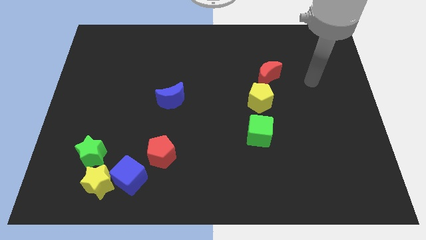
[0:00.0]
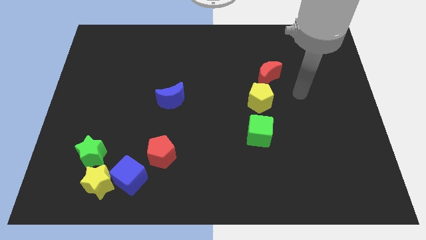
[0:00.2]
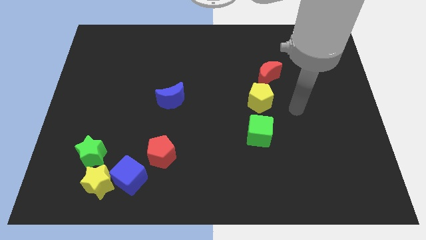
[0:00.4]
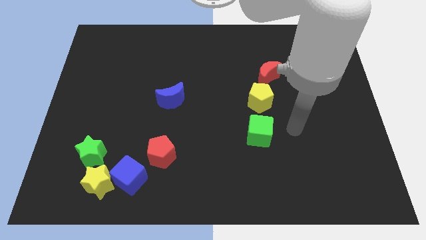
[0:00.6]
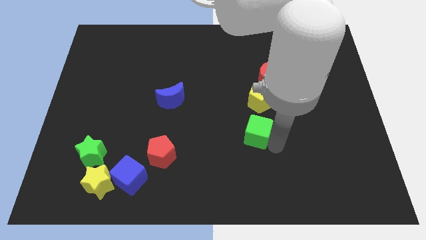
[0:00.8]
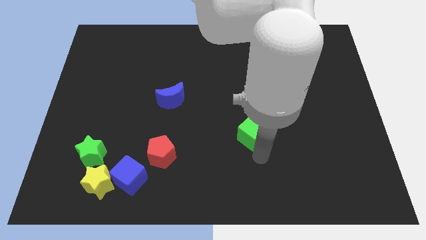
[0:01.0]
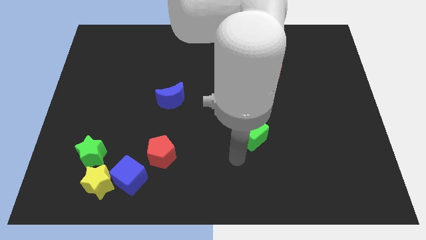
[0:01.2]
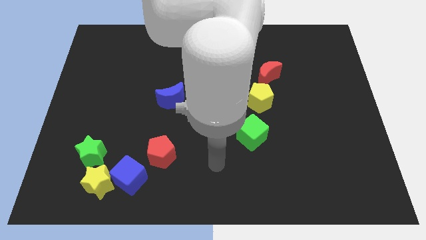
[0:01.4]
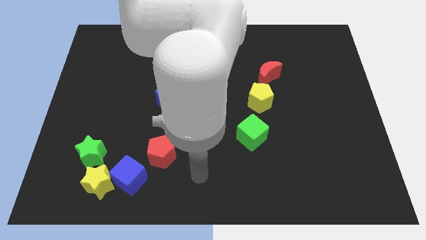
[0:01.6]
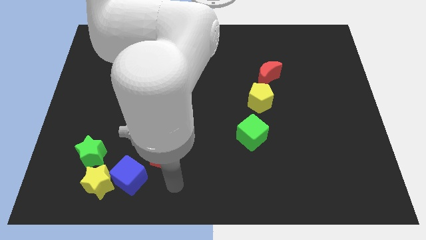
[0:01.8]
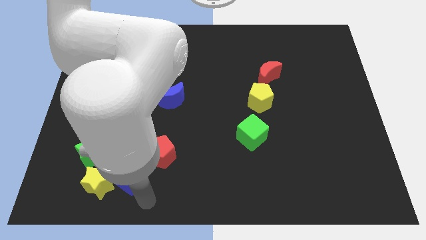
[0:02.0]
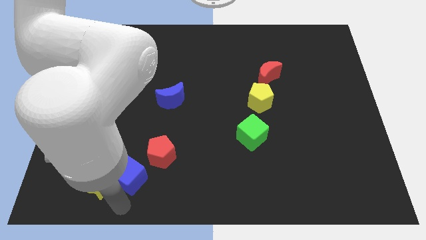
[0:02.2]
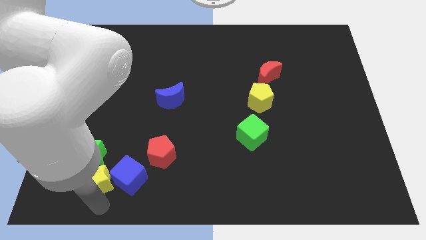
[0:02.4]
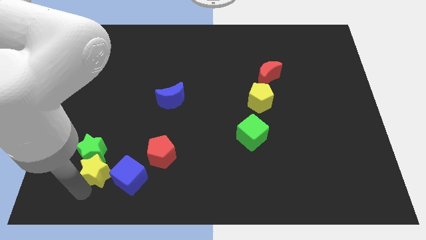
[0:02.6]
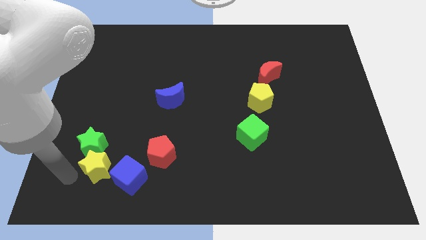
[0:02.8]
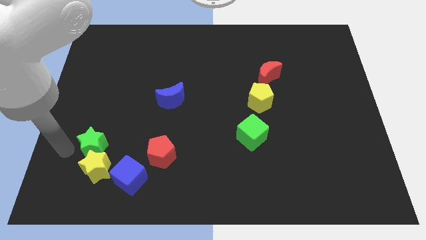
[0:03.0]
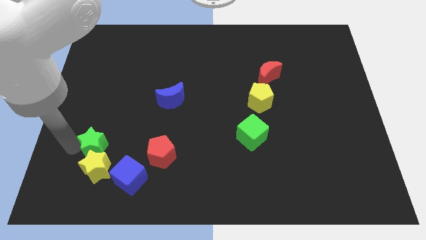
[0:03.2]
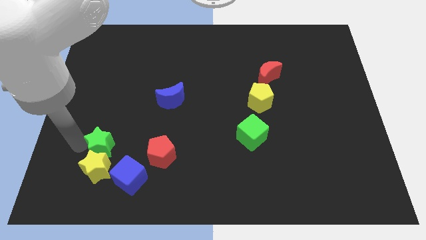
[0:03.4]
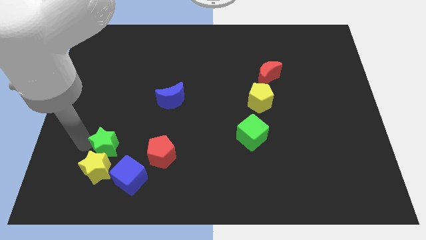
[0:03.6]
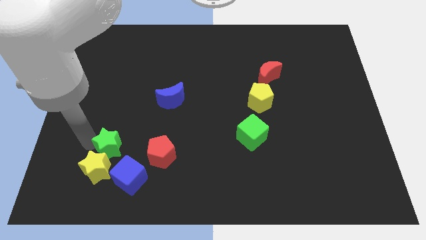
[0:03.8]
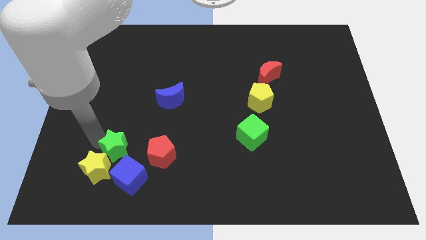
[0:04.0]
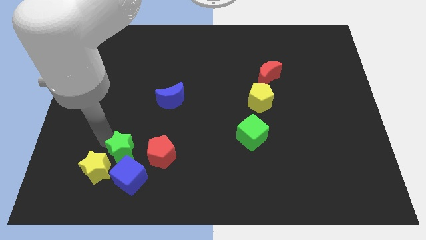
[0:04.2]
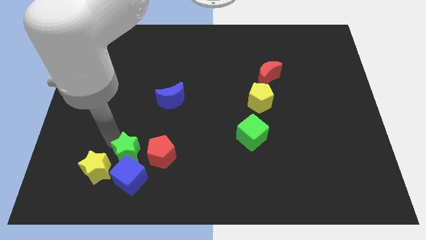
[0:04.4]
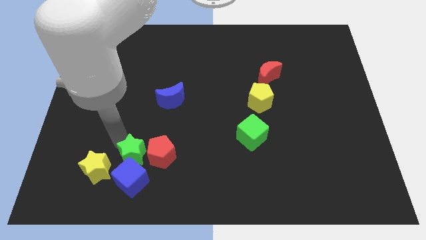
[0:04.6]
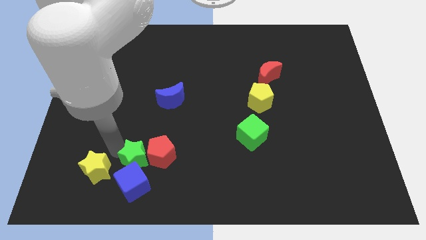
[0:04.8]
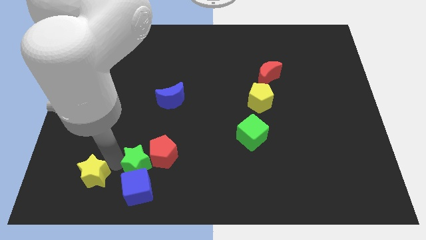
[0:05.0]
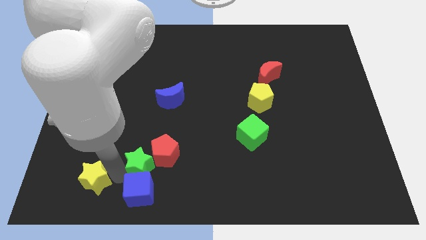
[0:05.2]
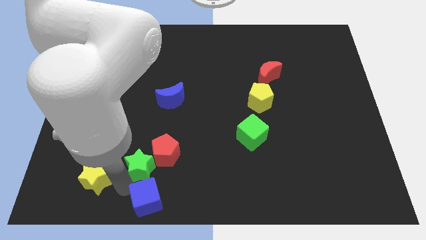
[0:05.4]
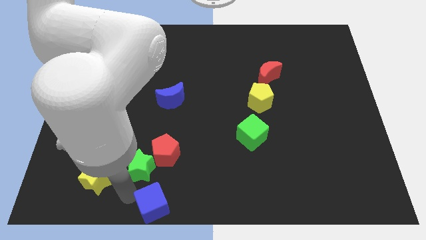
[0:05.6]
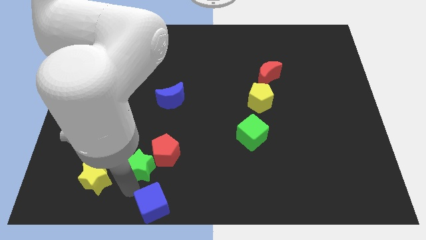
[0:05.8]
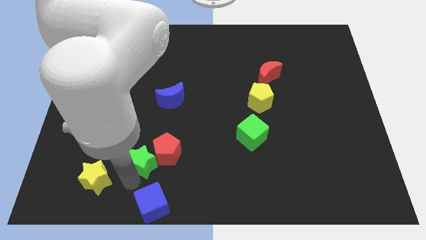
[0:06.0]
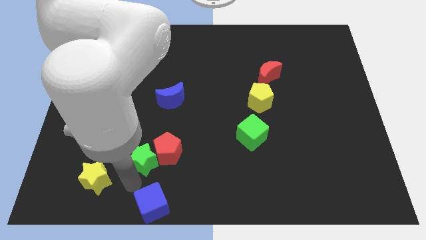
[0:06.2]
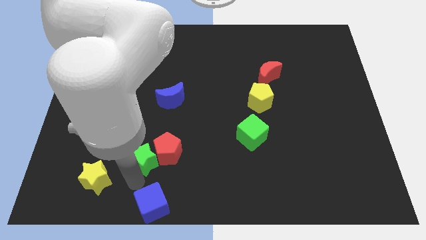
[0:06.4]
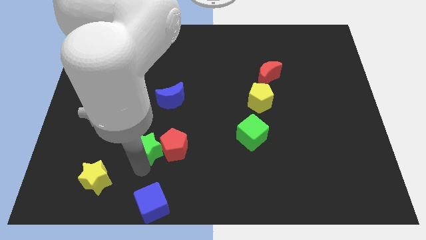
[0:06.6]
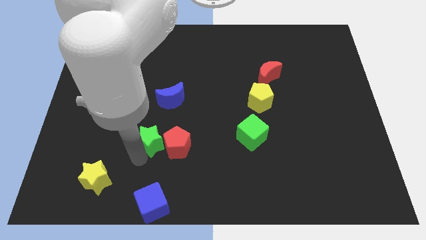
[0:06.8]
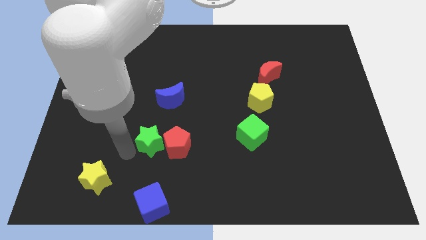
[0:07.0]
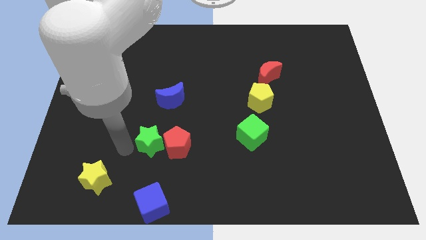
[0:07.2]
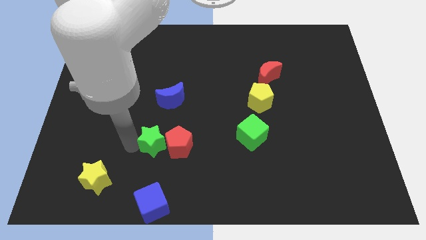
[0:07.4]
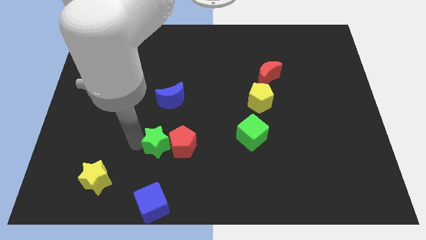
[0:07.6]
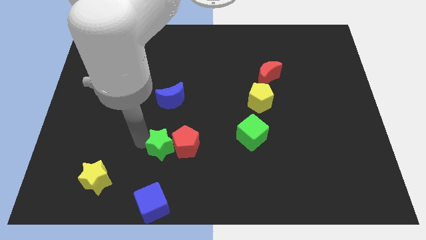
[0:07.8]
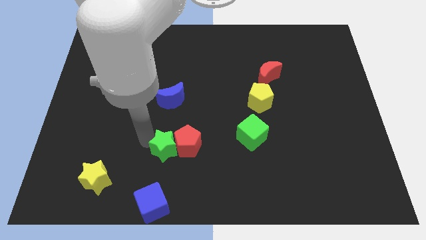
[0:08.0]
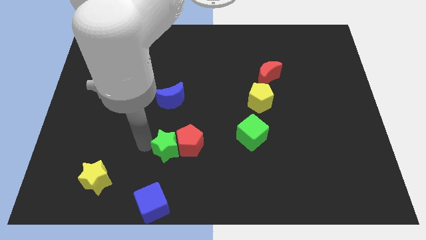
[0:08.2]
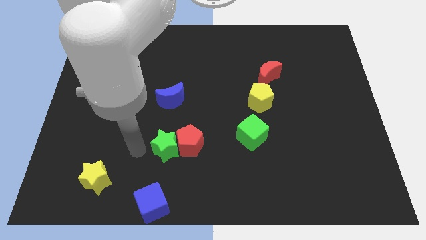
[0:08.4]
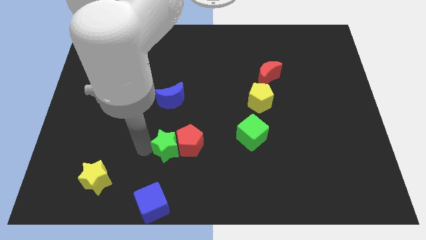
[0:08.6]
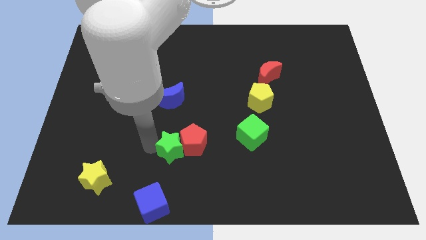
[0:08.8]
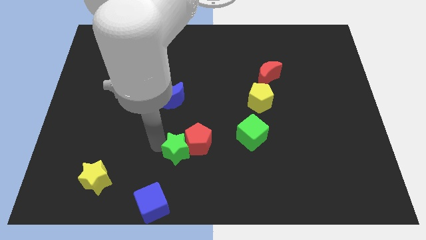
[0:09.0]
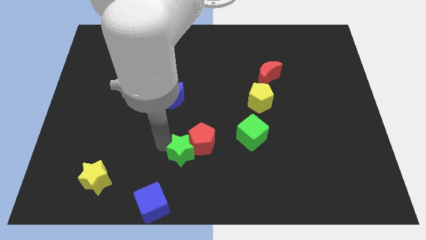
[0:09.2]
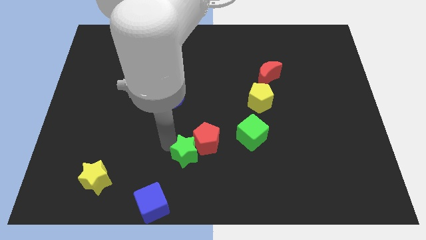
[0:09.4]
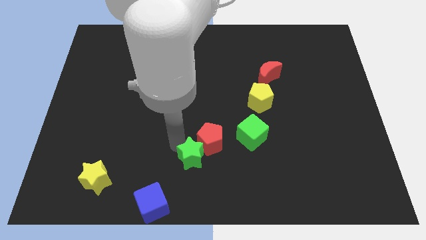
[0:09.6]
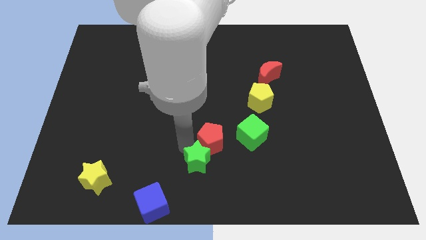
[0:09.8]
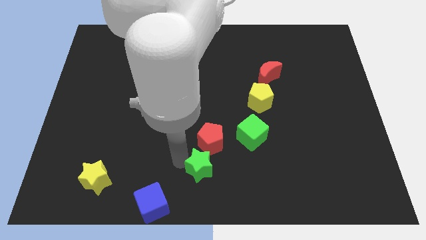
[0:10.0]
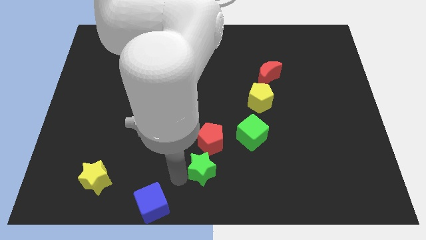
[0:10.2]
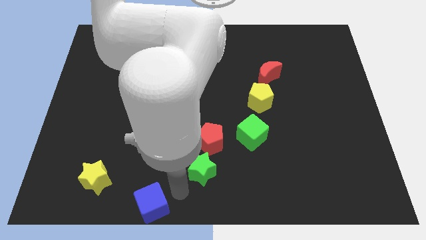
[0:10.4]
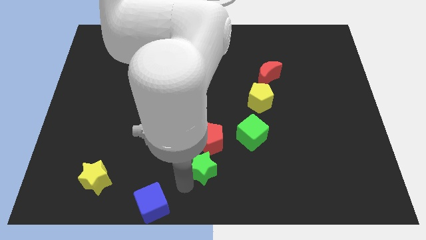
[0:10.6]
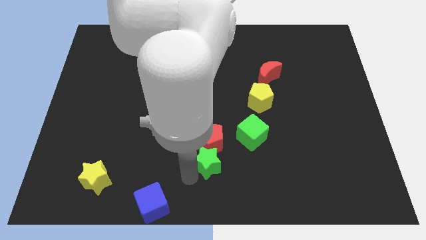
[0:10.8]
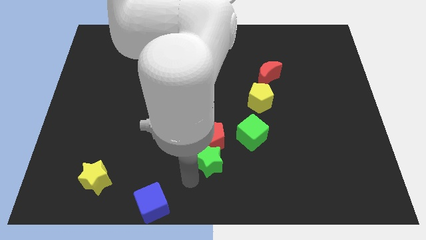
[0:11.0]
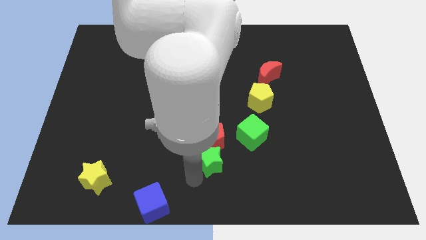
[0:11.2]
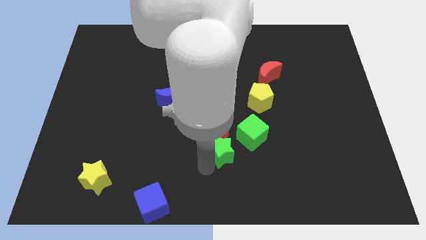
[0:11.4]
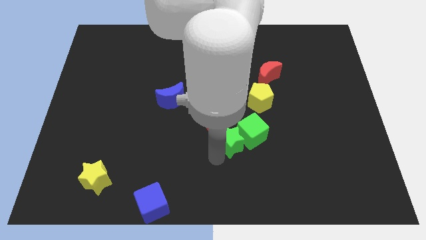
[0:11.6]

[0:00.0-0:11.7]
put the green star towards the green cube

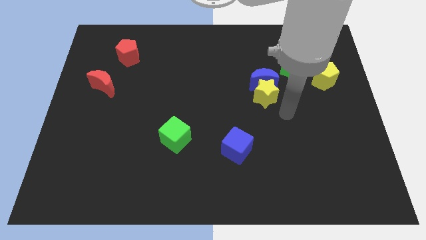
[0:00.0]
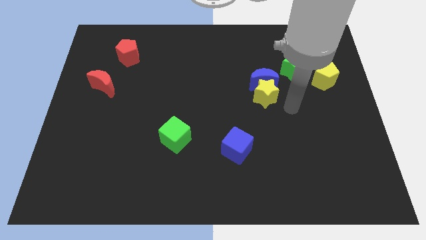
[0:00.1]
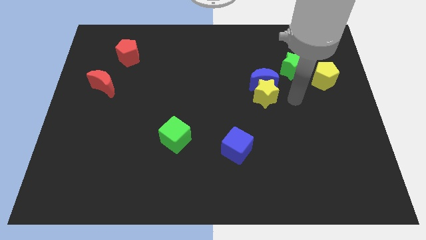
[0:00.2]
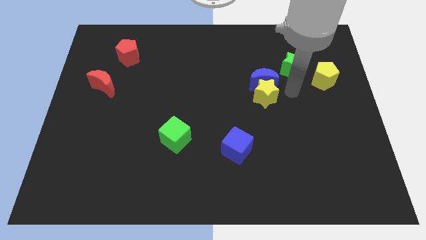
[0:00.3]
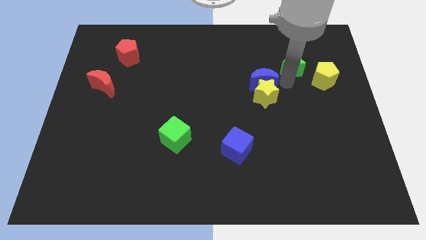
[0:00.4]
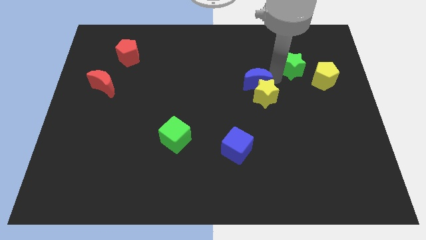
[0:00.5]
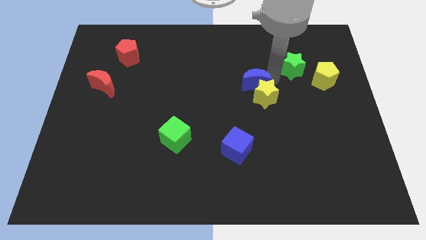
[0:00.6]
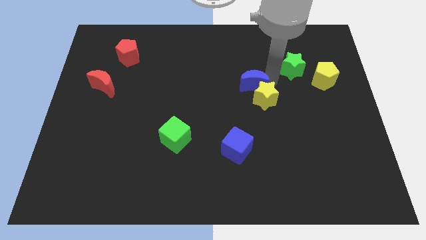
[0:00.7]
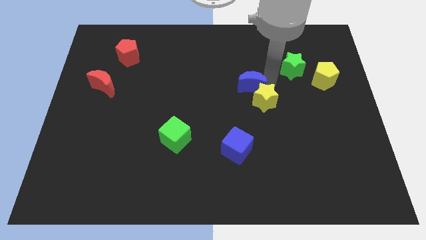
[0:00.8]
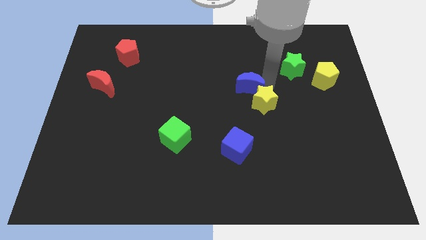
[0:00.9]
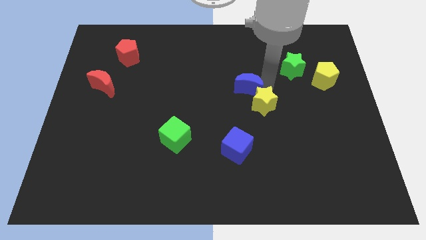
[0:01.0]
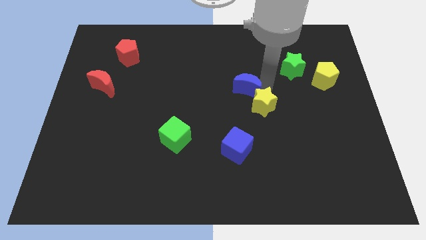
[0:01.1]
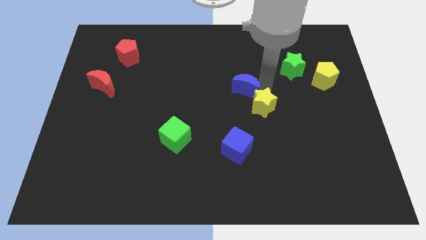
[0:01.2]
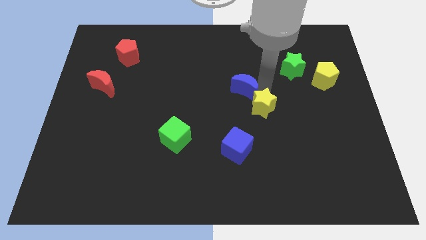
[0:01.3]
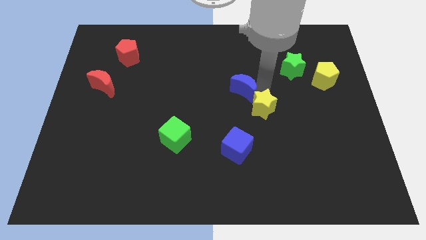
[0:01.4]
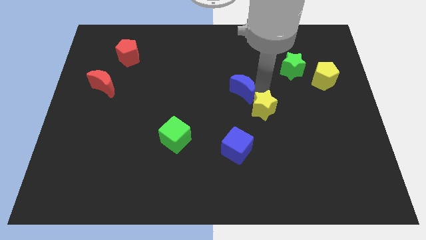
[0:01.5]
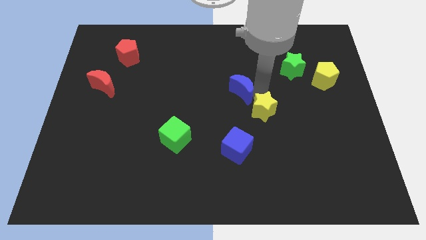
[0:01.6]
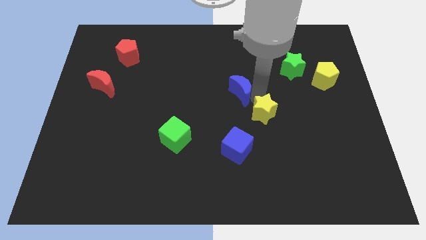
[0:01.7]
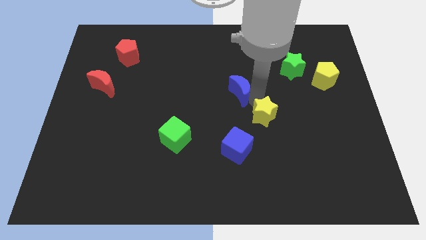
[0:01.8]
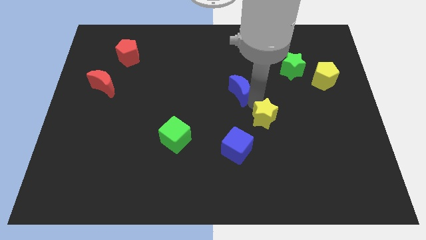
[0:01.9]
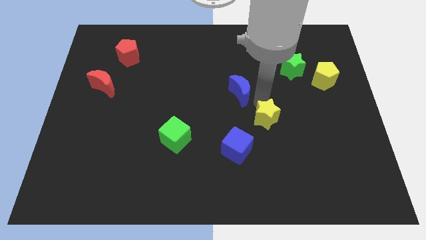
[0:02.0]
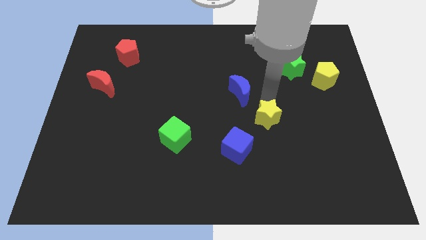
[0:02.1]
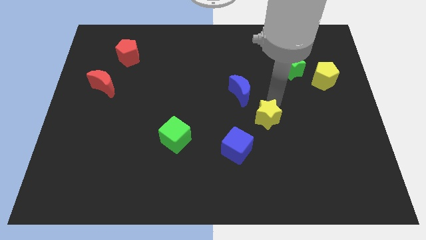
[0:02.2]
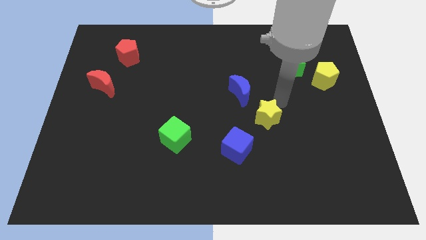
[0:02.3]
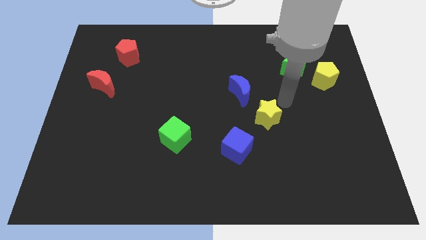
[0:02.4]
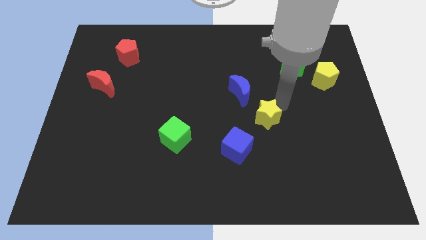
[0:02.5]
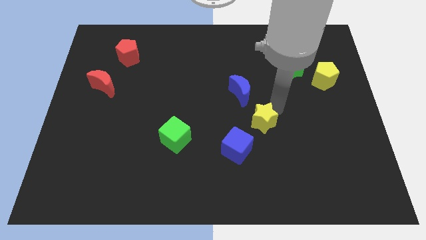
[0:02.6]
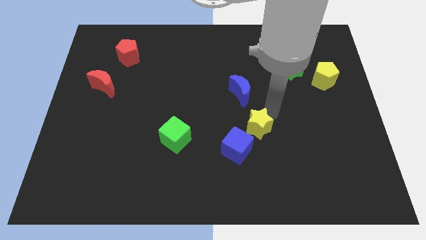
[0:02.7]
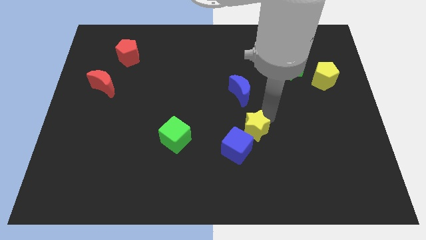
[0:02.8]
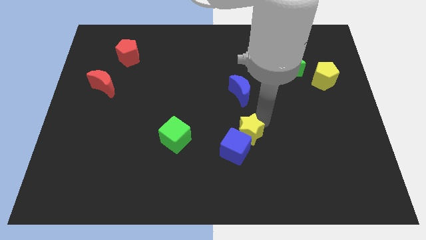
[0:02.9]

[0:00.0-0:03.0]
push the yellow star close to the blue cube
